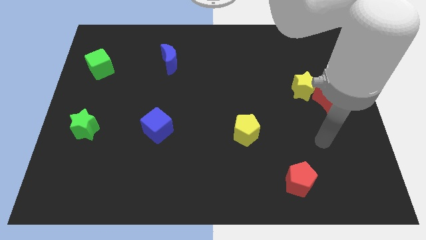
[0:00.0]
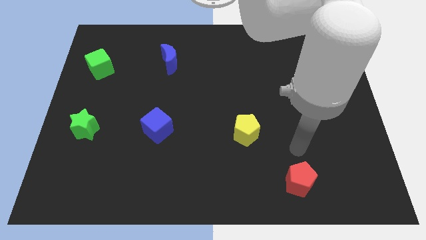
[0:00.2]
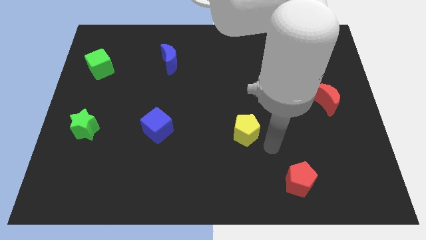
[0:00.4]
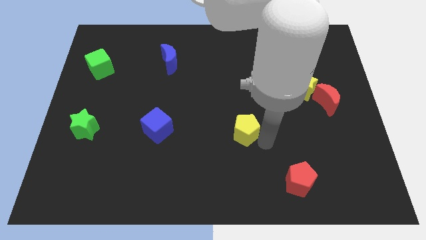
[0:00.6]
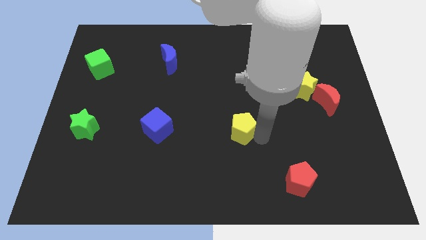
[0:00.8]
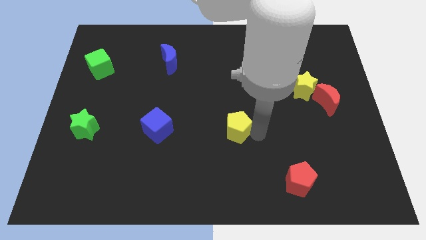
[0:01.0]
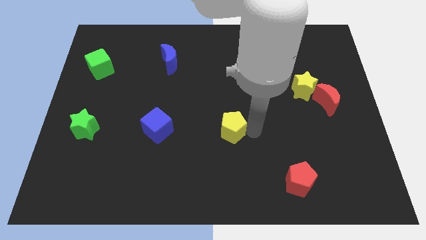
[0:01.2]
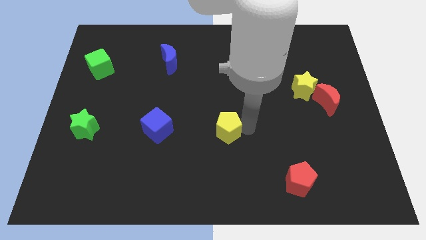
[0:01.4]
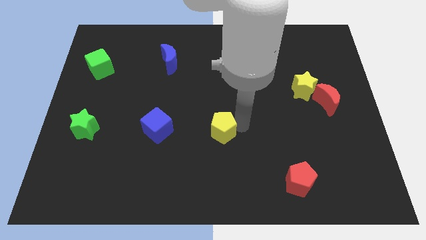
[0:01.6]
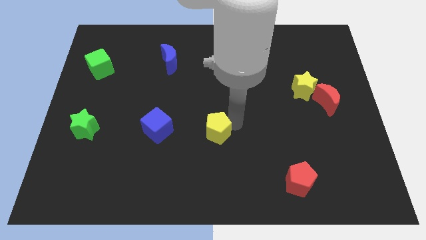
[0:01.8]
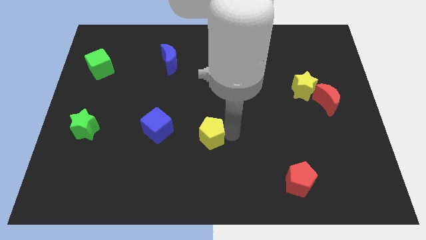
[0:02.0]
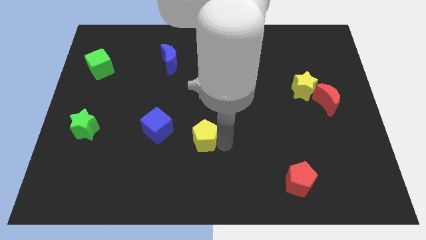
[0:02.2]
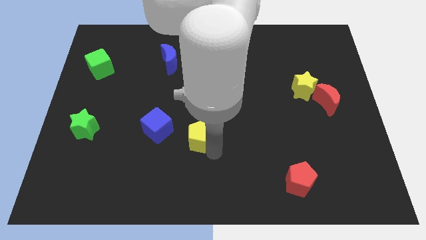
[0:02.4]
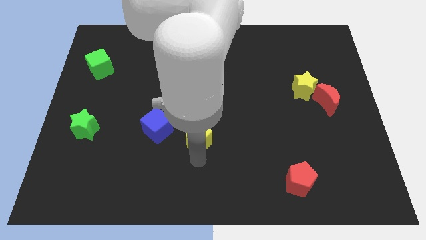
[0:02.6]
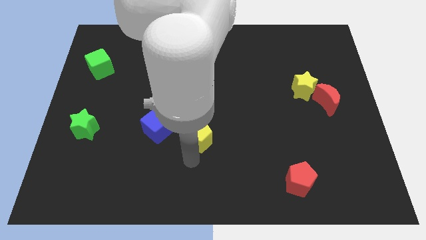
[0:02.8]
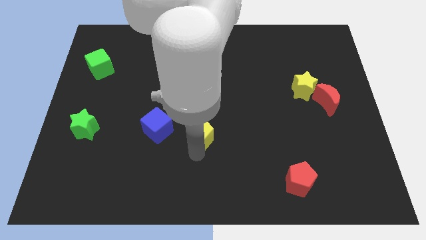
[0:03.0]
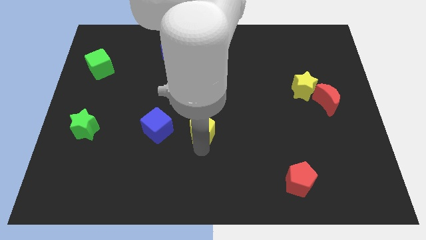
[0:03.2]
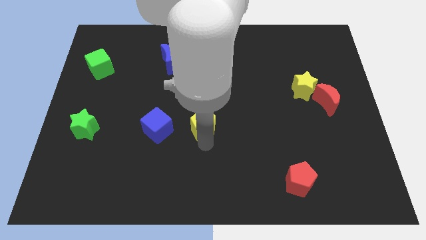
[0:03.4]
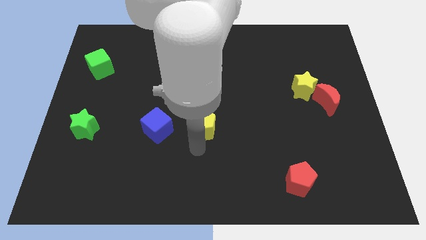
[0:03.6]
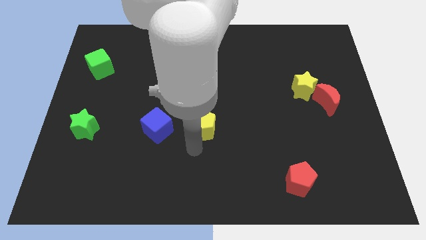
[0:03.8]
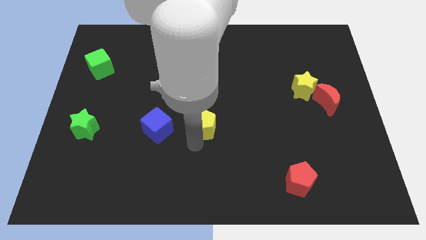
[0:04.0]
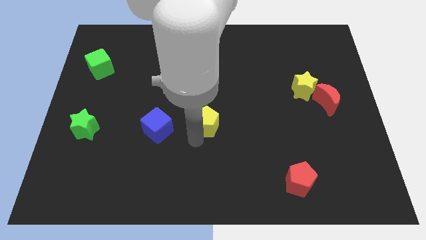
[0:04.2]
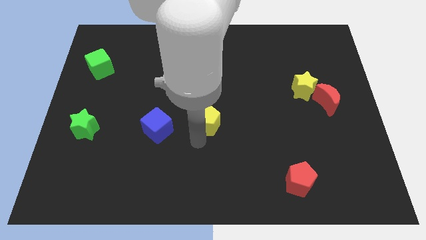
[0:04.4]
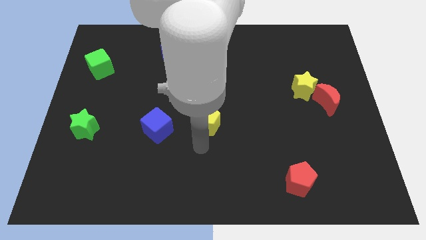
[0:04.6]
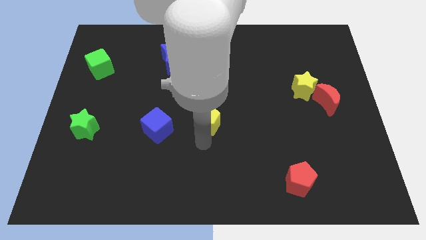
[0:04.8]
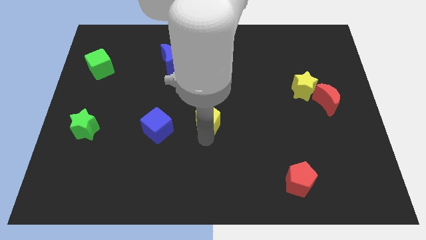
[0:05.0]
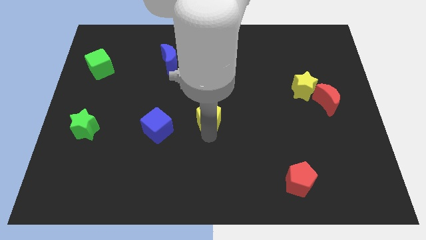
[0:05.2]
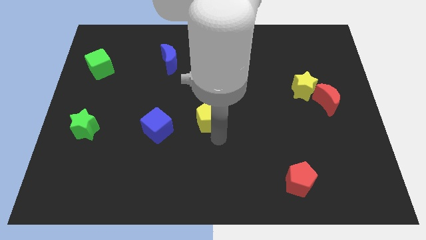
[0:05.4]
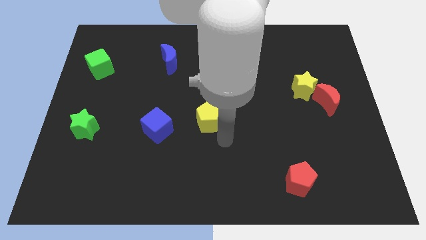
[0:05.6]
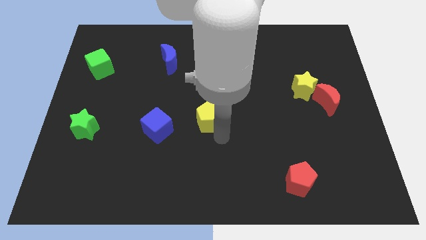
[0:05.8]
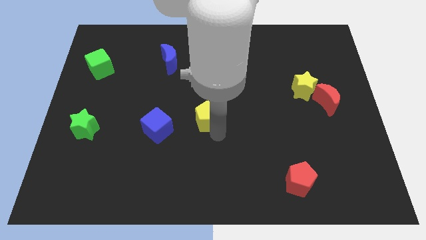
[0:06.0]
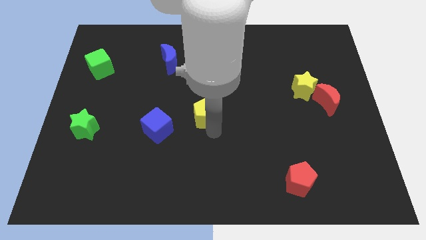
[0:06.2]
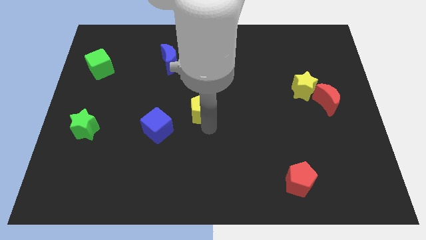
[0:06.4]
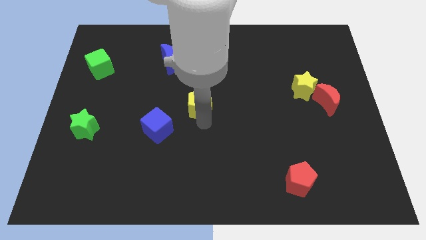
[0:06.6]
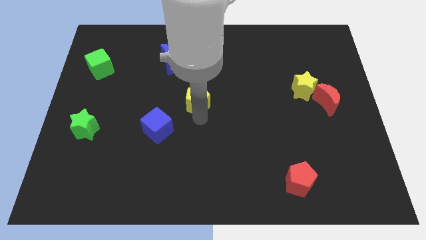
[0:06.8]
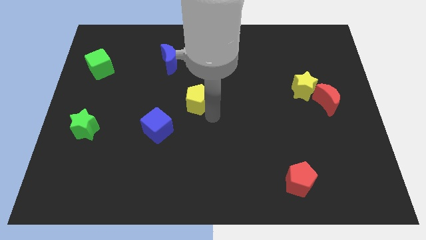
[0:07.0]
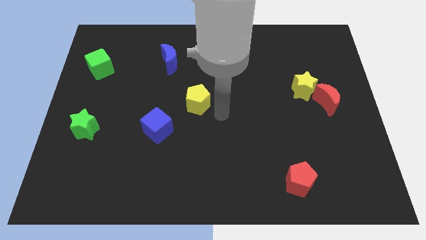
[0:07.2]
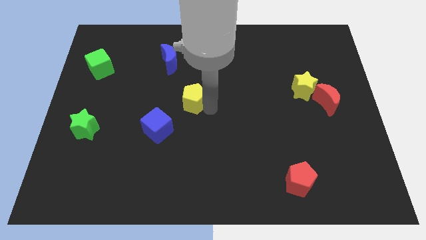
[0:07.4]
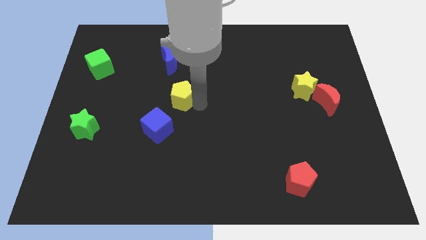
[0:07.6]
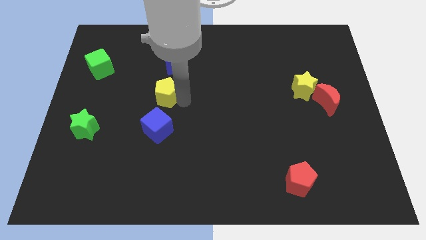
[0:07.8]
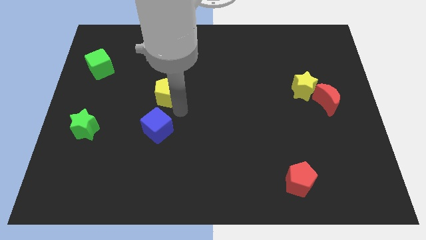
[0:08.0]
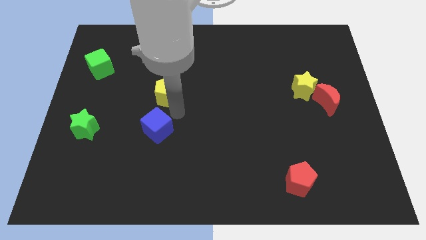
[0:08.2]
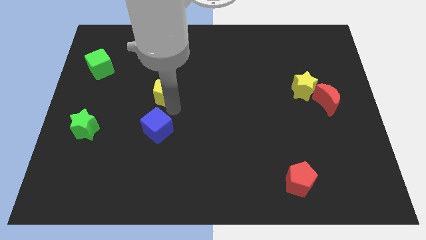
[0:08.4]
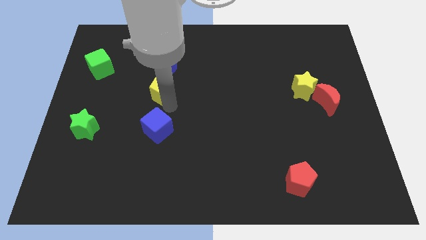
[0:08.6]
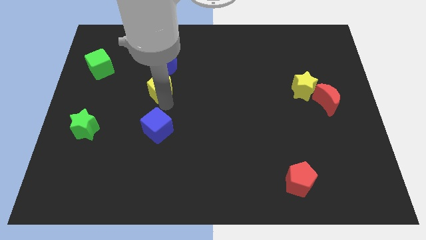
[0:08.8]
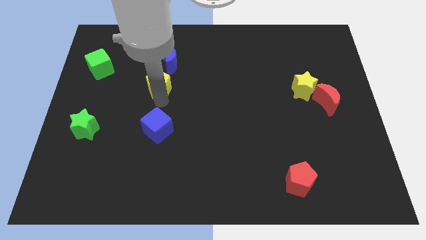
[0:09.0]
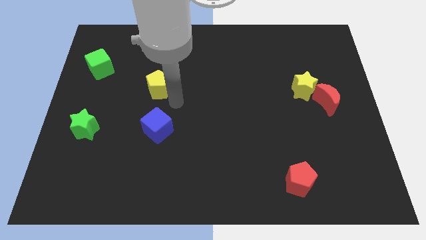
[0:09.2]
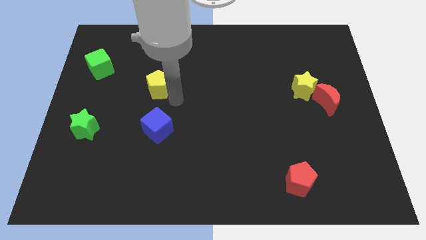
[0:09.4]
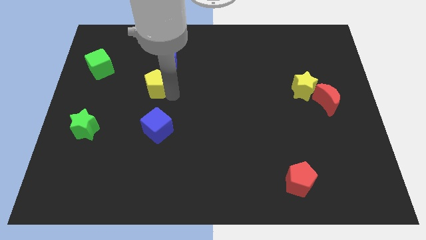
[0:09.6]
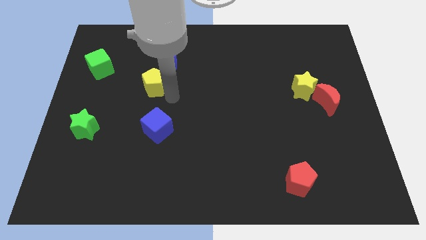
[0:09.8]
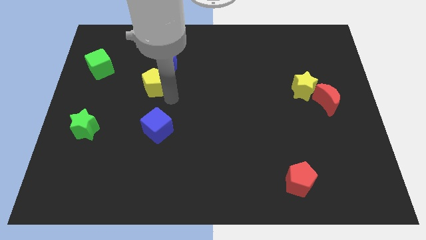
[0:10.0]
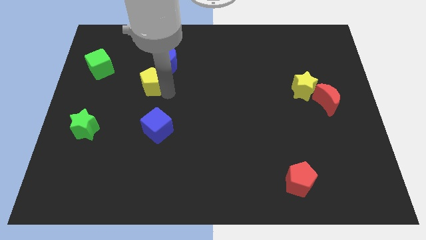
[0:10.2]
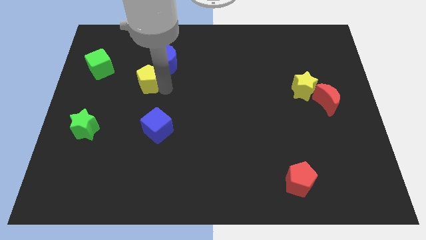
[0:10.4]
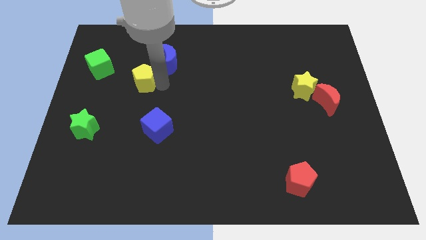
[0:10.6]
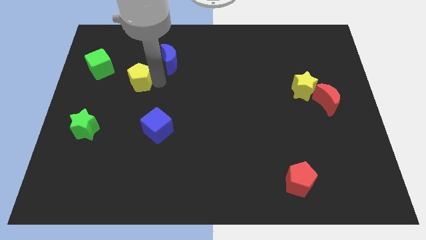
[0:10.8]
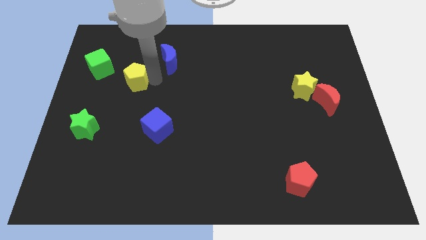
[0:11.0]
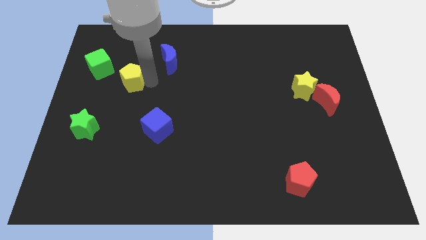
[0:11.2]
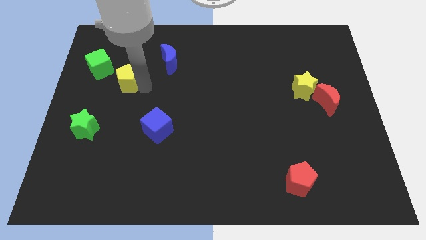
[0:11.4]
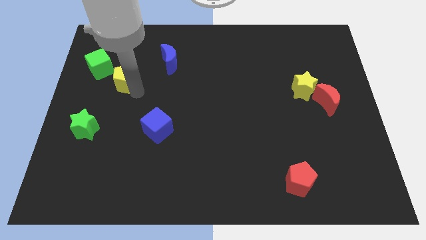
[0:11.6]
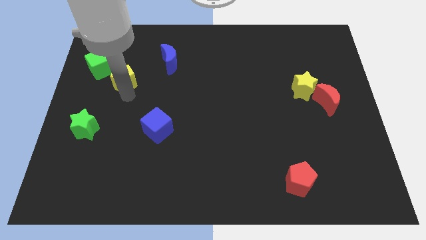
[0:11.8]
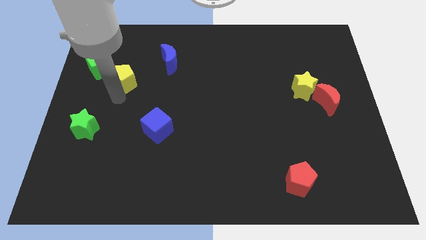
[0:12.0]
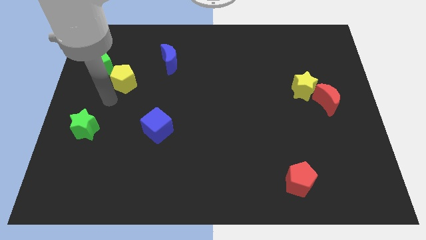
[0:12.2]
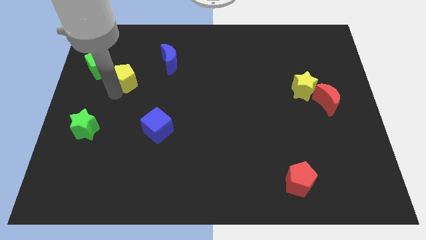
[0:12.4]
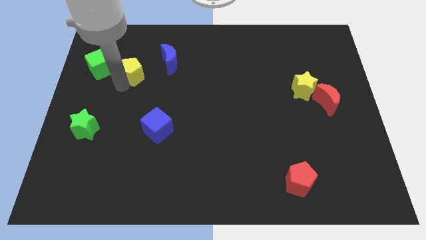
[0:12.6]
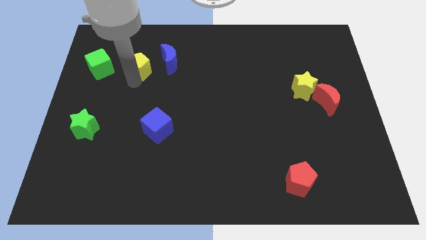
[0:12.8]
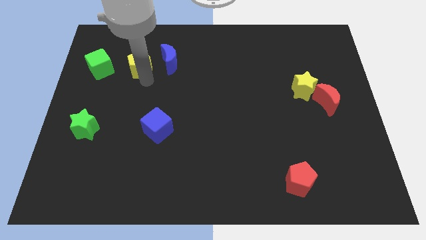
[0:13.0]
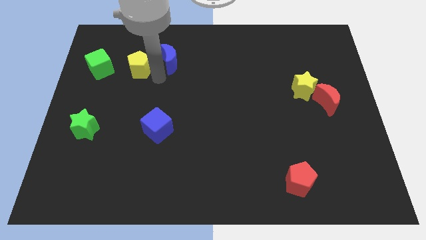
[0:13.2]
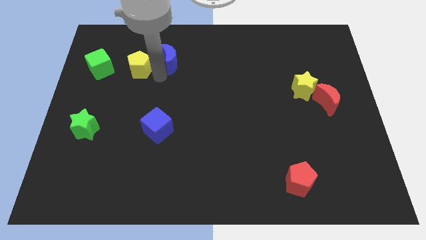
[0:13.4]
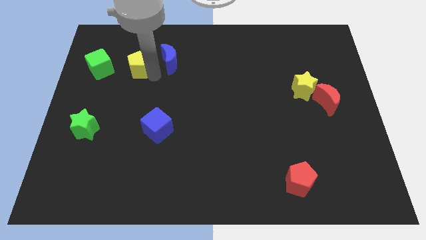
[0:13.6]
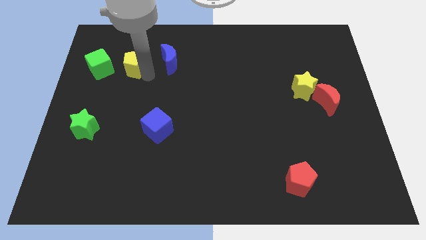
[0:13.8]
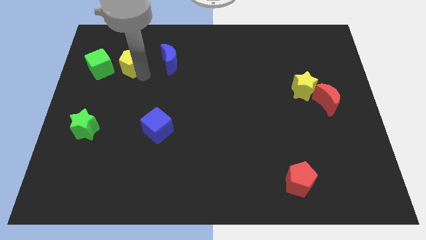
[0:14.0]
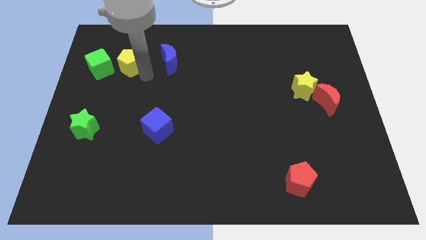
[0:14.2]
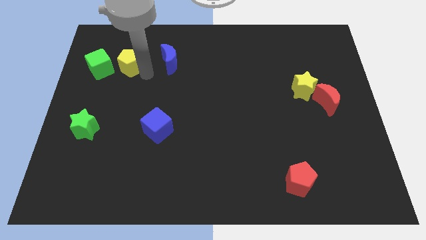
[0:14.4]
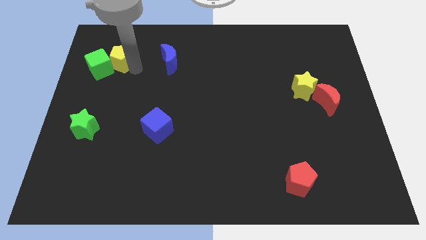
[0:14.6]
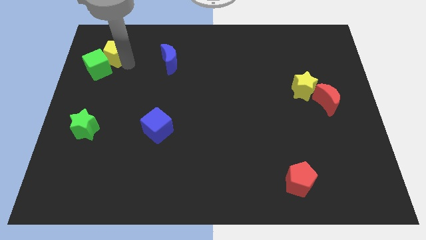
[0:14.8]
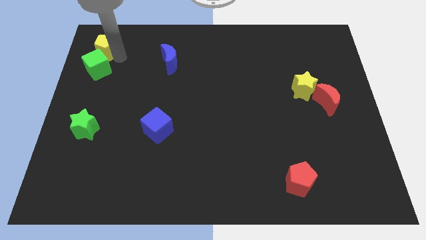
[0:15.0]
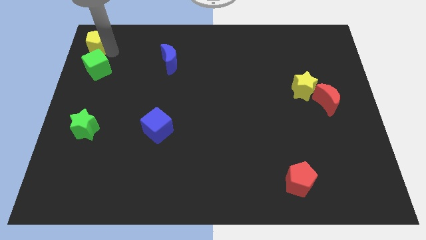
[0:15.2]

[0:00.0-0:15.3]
push the yellow pentagon to the top left
